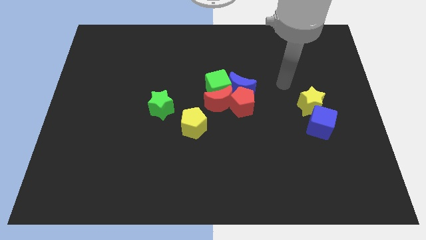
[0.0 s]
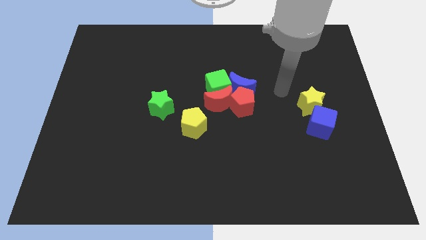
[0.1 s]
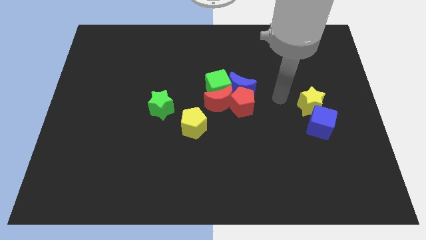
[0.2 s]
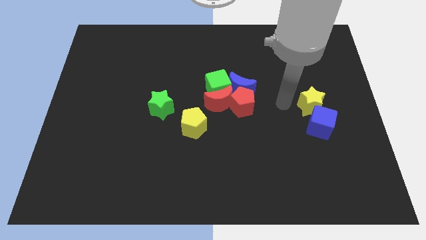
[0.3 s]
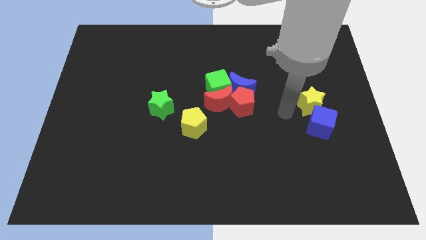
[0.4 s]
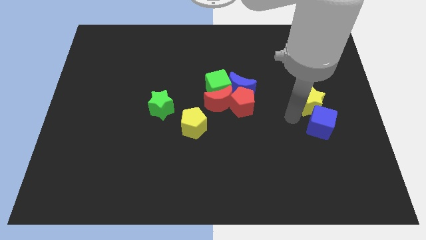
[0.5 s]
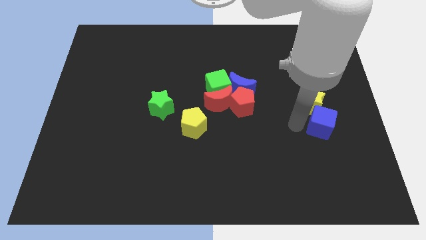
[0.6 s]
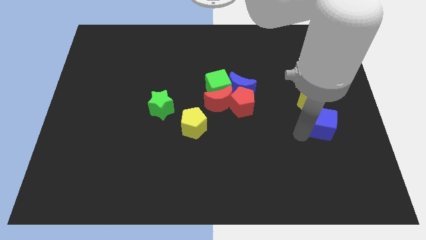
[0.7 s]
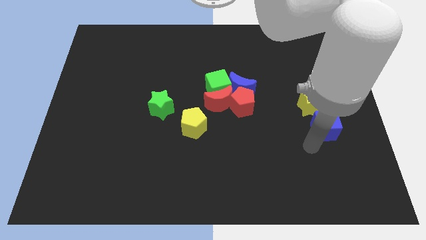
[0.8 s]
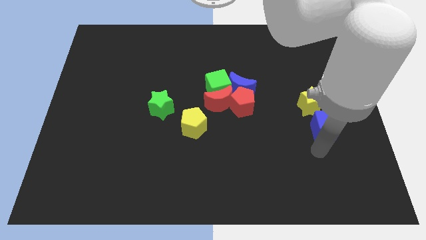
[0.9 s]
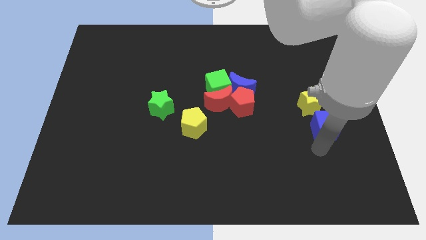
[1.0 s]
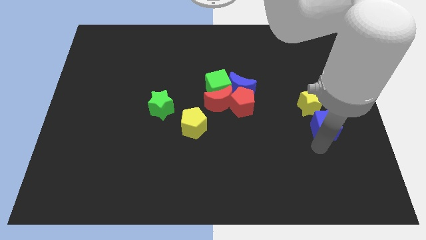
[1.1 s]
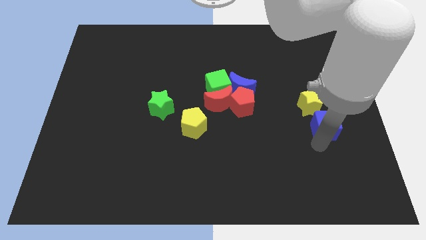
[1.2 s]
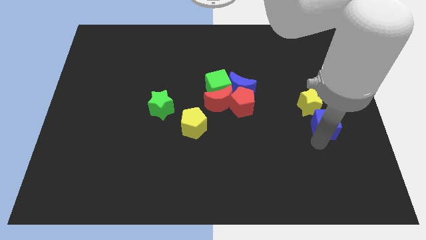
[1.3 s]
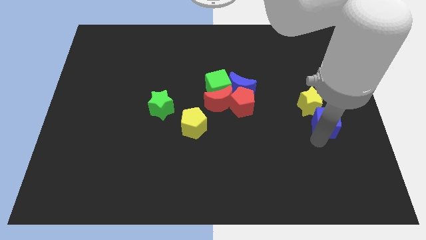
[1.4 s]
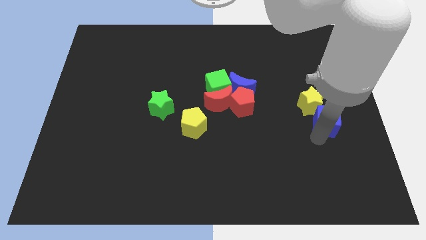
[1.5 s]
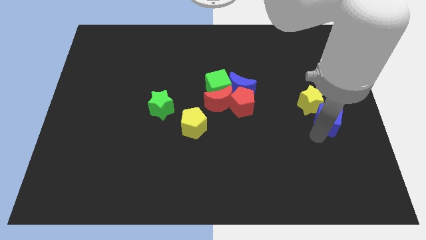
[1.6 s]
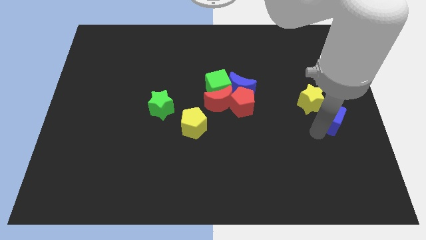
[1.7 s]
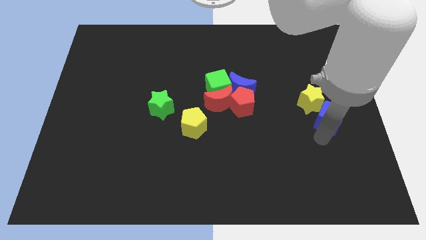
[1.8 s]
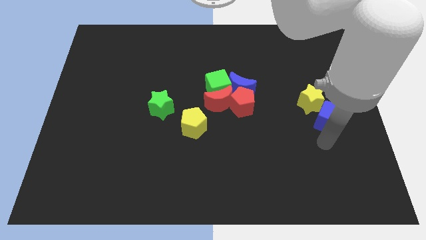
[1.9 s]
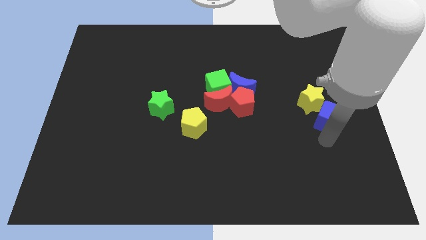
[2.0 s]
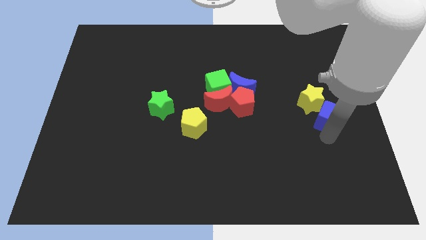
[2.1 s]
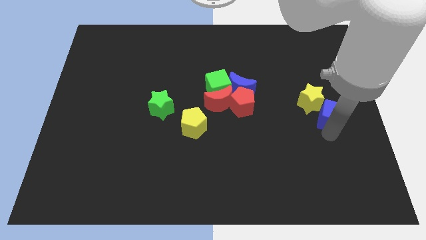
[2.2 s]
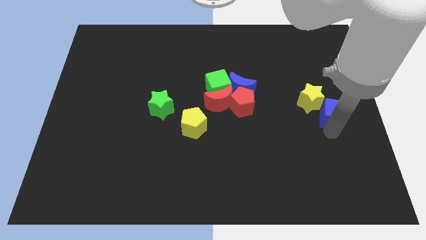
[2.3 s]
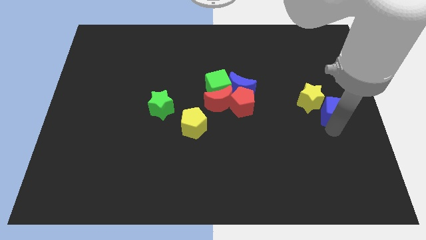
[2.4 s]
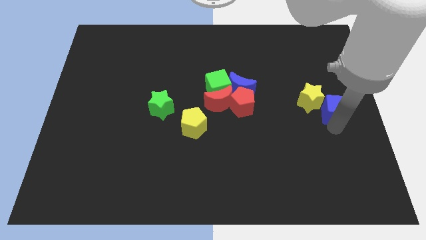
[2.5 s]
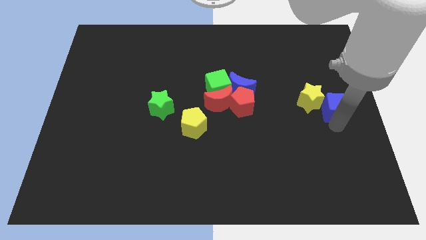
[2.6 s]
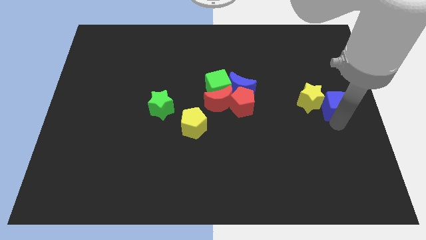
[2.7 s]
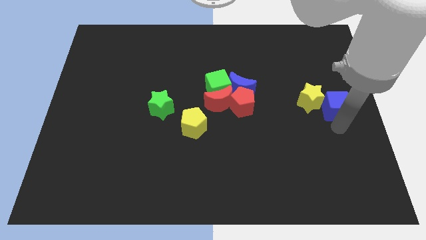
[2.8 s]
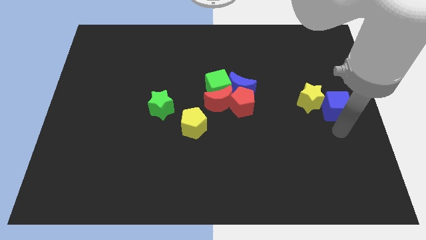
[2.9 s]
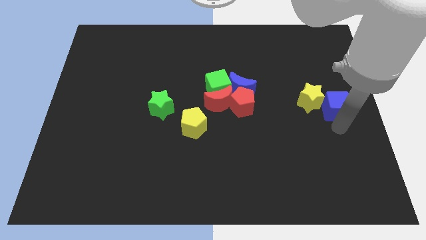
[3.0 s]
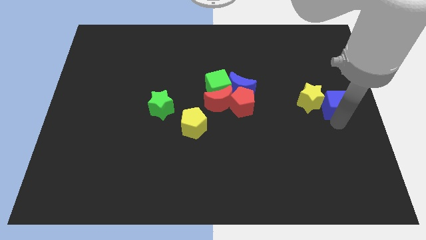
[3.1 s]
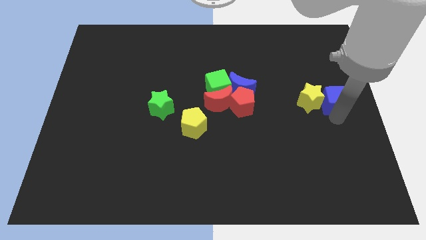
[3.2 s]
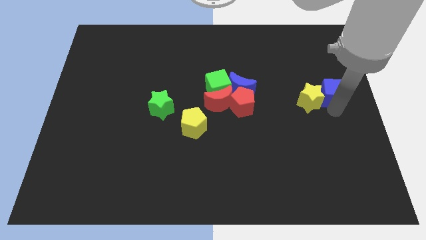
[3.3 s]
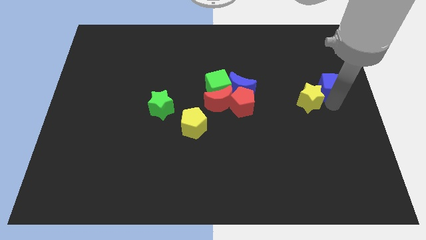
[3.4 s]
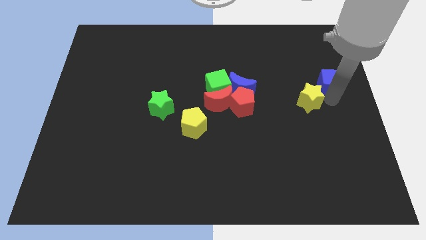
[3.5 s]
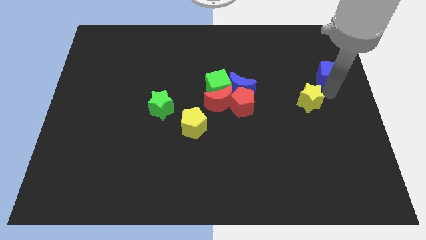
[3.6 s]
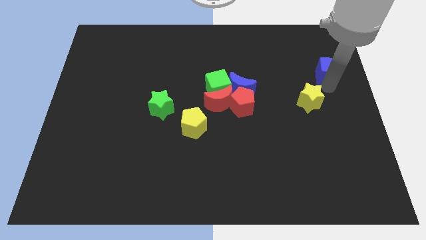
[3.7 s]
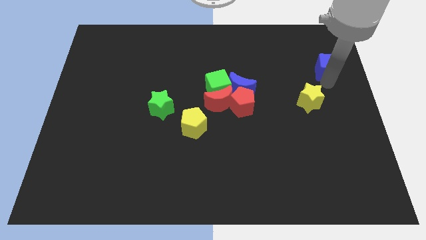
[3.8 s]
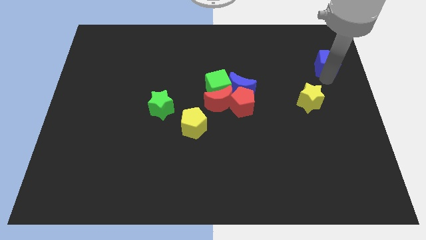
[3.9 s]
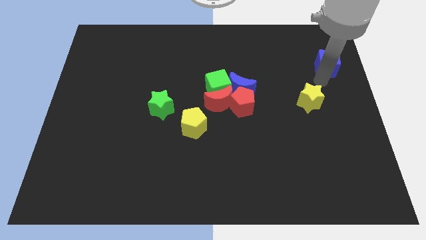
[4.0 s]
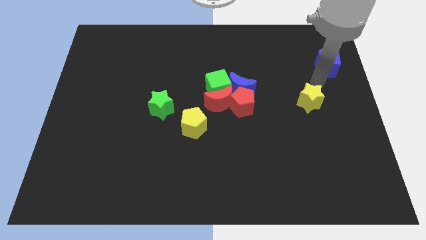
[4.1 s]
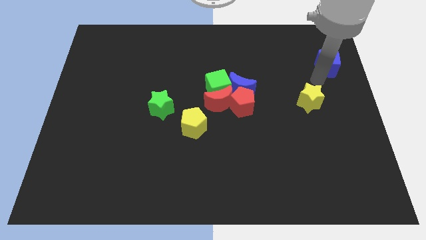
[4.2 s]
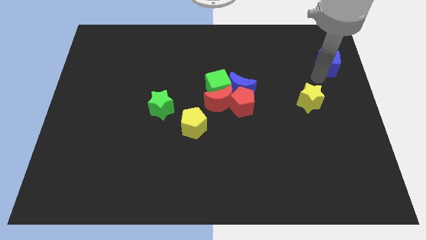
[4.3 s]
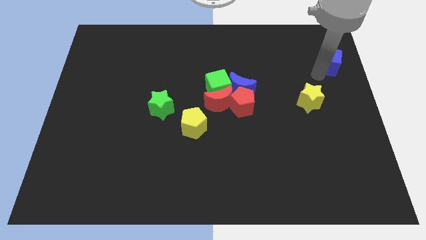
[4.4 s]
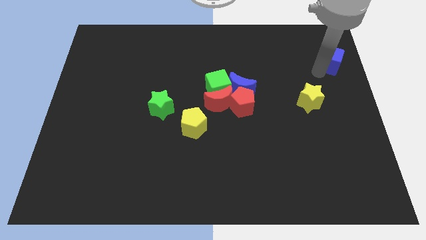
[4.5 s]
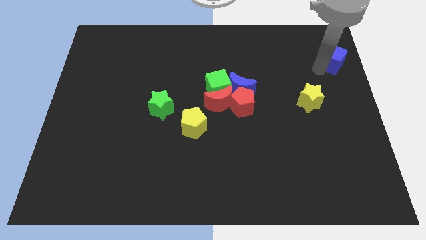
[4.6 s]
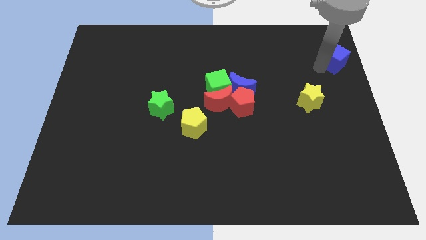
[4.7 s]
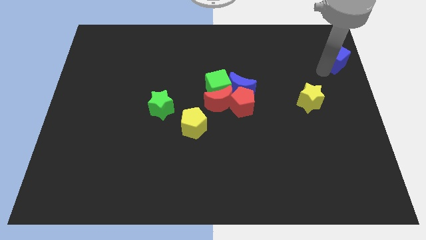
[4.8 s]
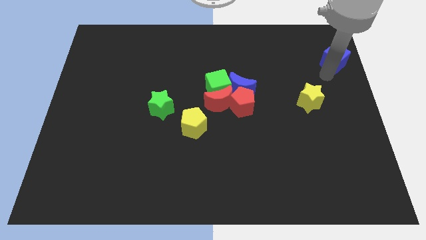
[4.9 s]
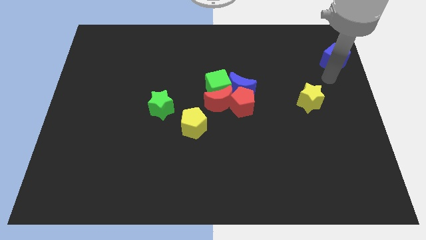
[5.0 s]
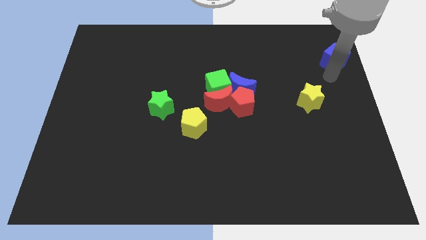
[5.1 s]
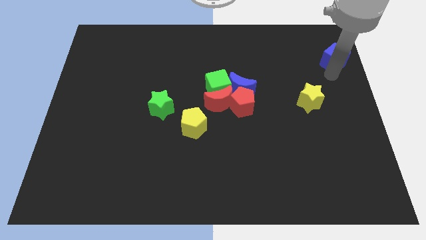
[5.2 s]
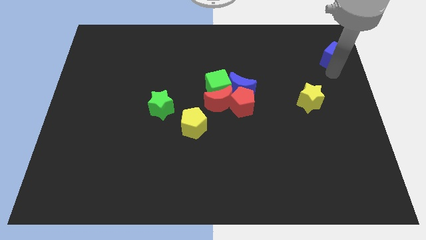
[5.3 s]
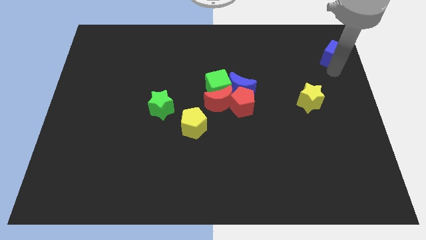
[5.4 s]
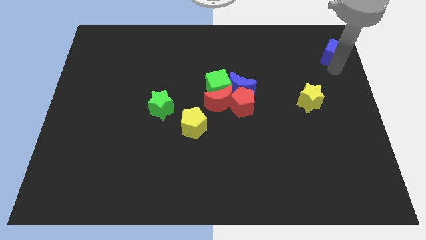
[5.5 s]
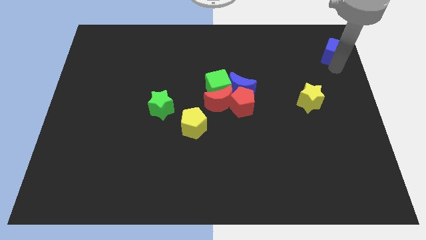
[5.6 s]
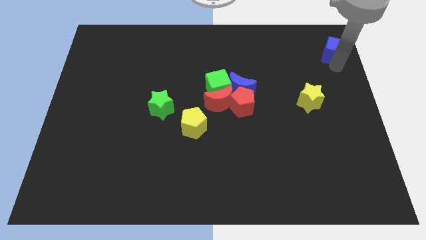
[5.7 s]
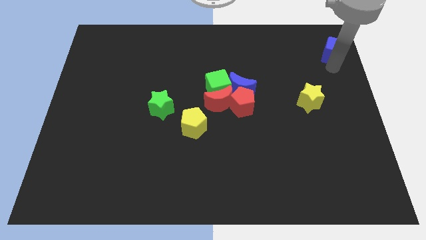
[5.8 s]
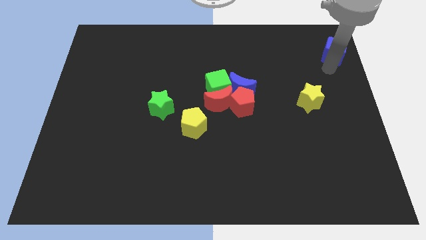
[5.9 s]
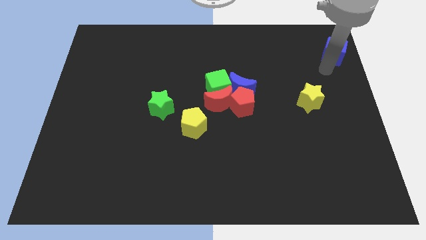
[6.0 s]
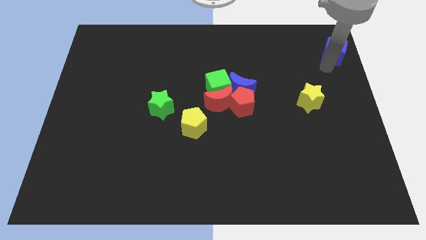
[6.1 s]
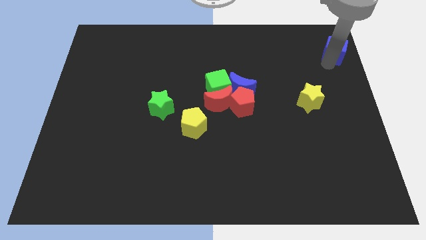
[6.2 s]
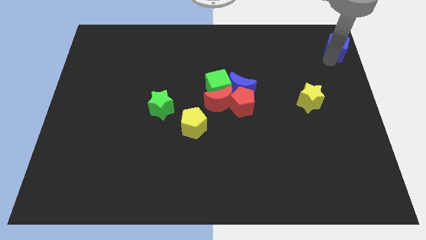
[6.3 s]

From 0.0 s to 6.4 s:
push the blue cube to the top right
